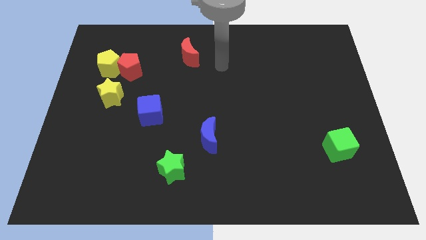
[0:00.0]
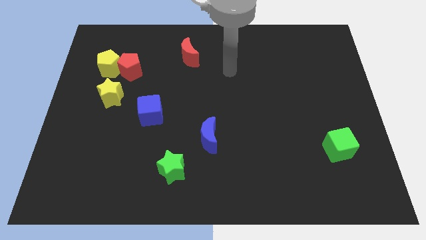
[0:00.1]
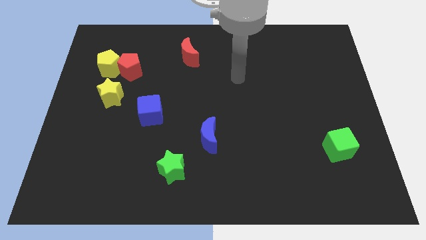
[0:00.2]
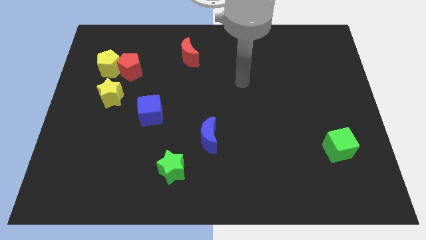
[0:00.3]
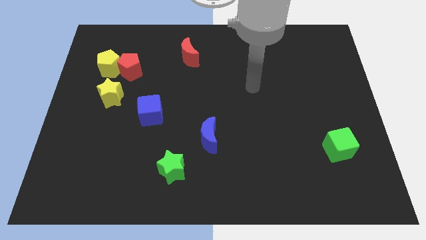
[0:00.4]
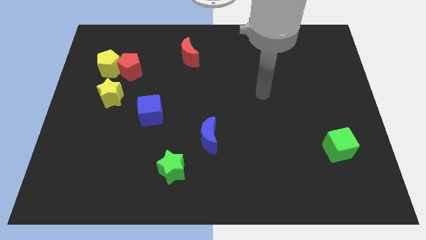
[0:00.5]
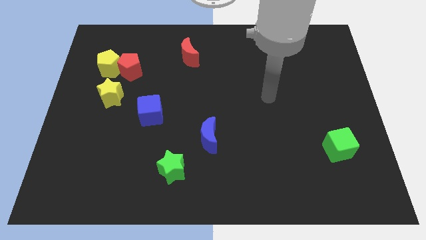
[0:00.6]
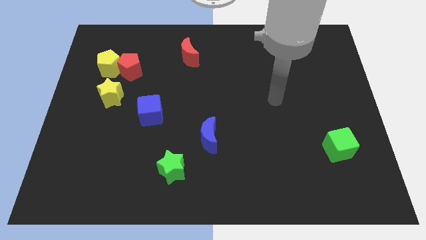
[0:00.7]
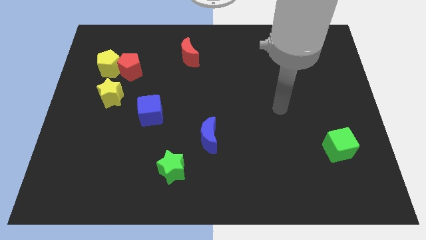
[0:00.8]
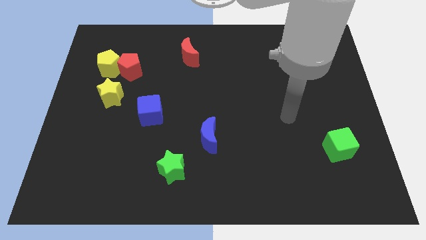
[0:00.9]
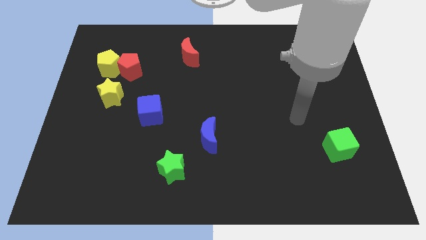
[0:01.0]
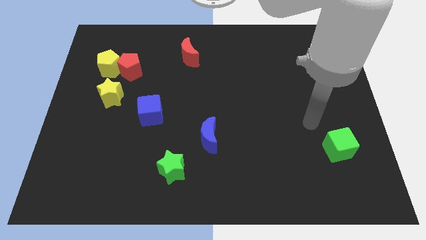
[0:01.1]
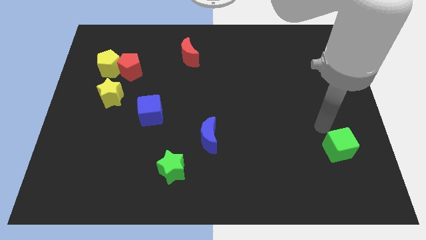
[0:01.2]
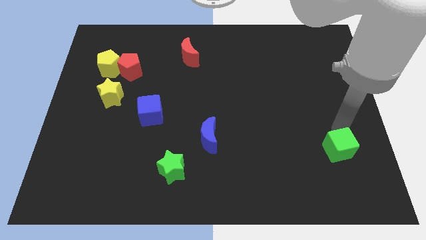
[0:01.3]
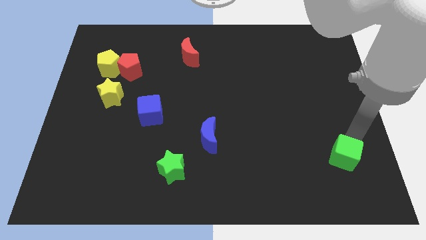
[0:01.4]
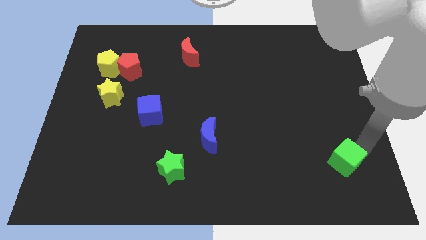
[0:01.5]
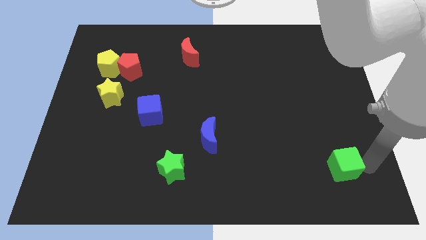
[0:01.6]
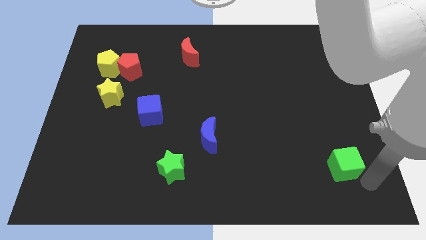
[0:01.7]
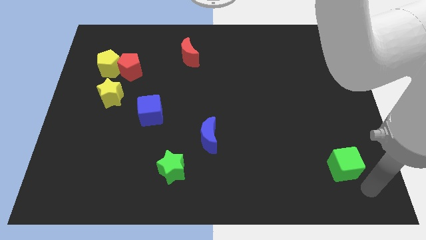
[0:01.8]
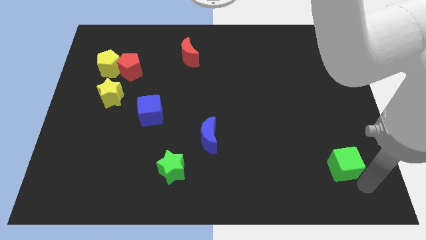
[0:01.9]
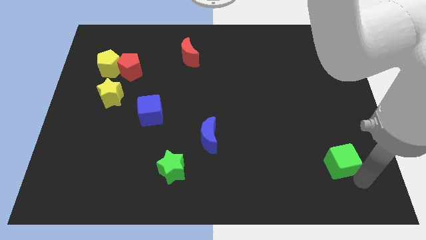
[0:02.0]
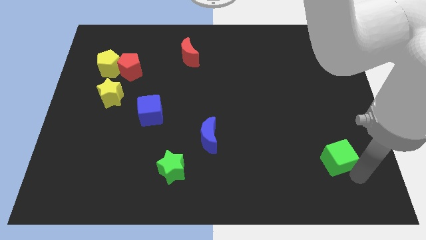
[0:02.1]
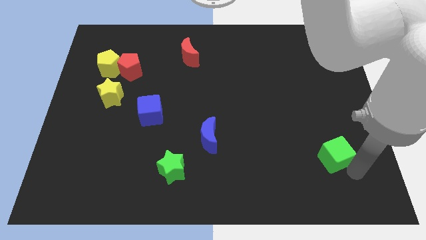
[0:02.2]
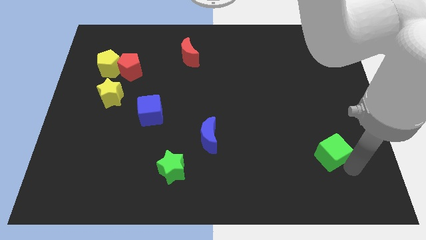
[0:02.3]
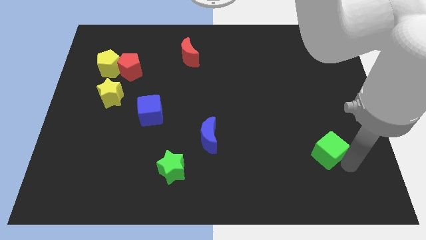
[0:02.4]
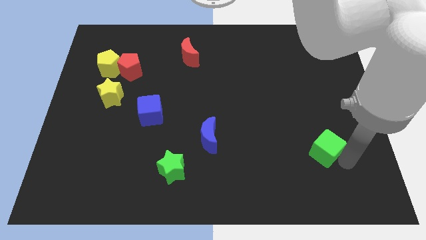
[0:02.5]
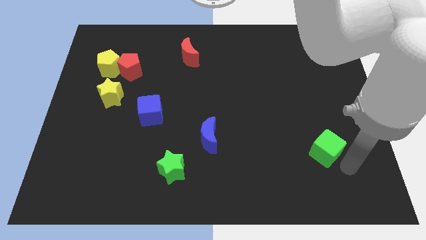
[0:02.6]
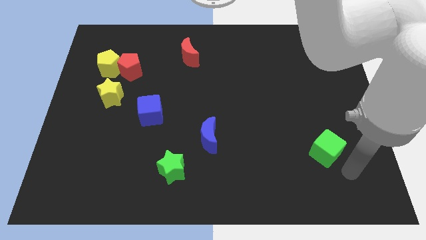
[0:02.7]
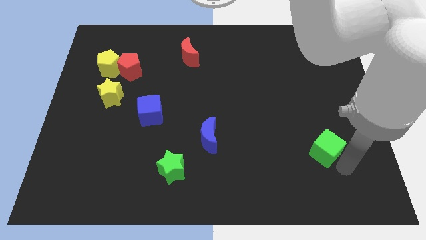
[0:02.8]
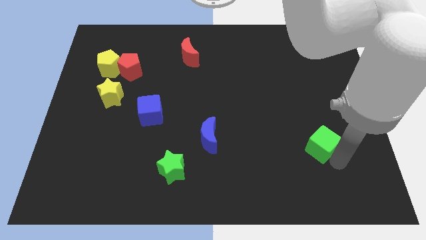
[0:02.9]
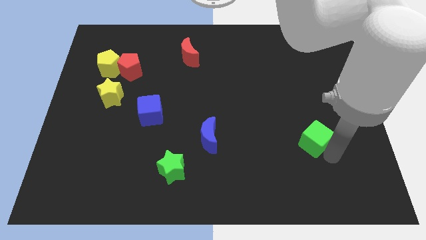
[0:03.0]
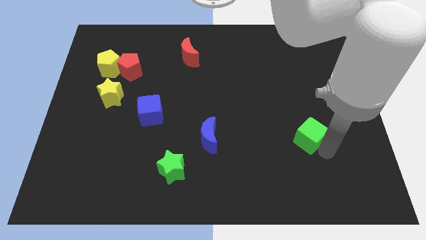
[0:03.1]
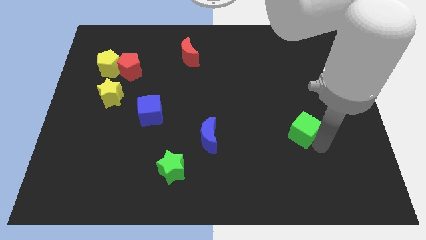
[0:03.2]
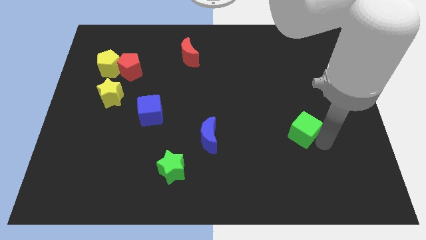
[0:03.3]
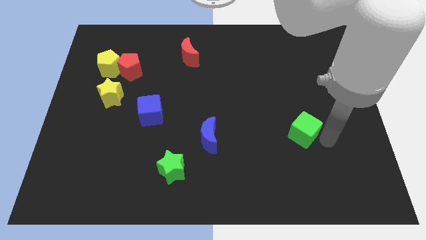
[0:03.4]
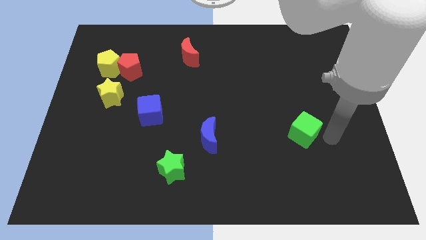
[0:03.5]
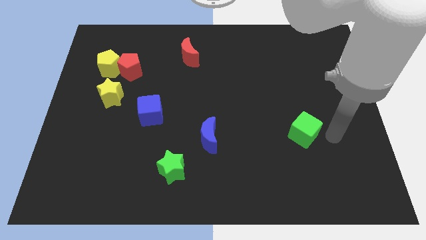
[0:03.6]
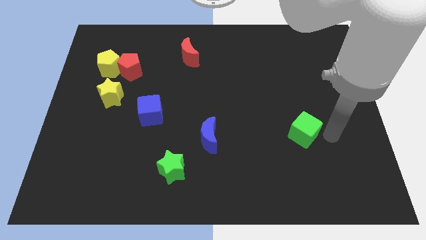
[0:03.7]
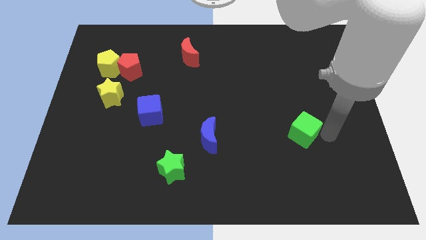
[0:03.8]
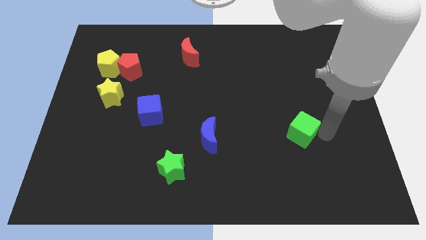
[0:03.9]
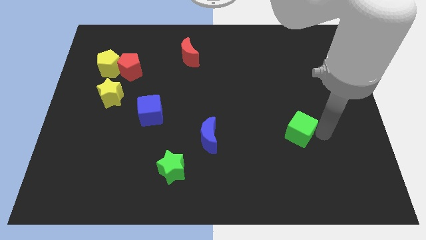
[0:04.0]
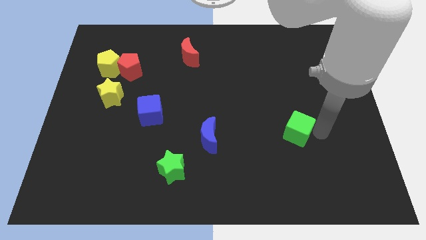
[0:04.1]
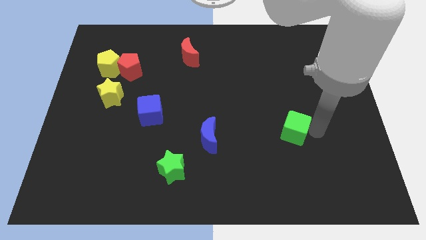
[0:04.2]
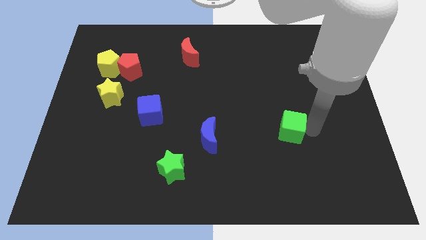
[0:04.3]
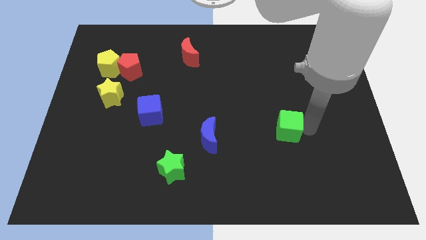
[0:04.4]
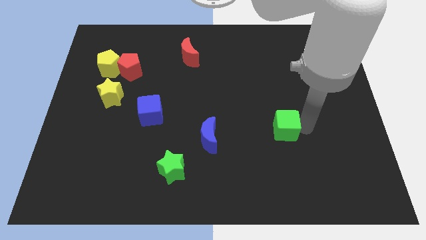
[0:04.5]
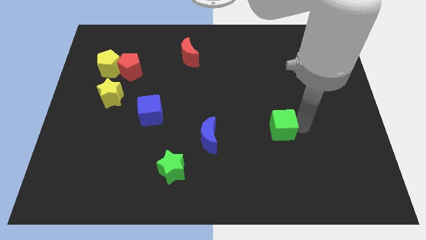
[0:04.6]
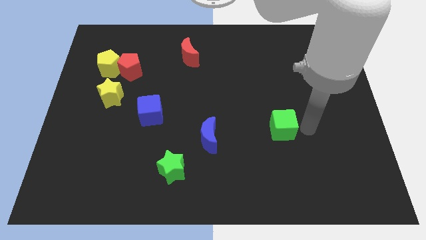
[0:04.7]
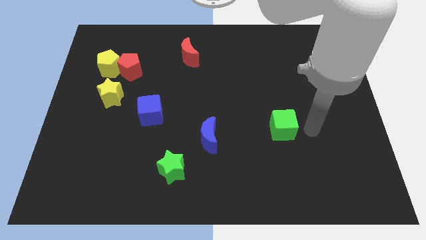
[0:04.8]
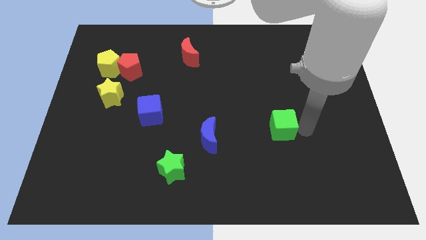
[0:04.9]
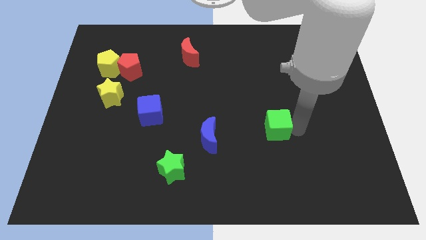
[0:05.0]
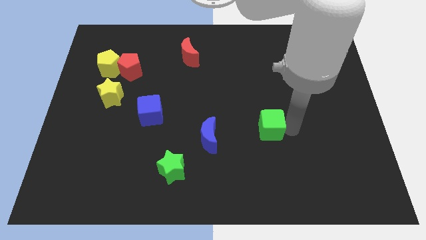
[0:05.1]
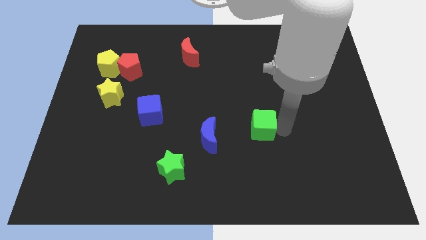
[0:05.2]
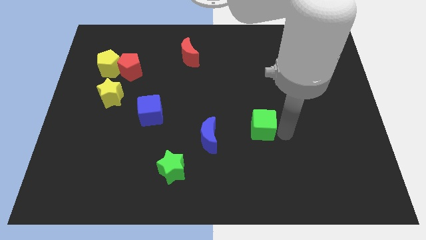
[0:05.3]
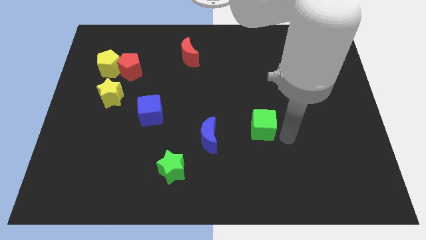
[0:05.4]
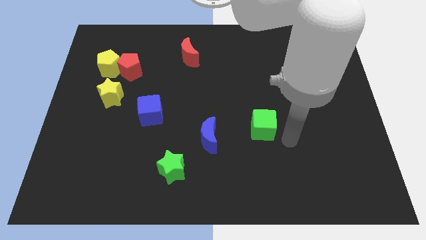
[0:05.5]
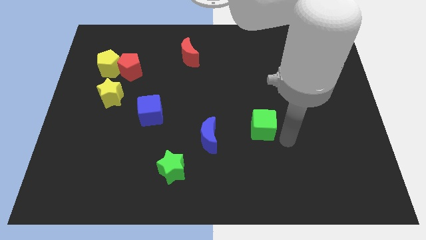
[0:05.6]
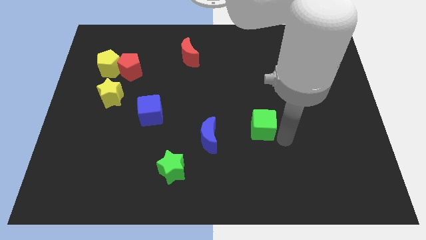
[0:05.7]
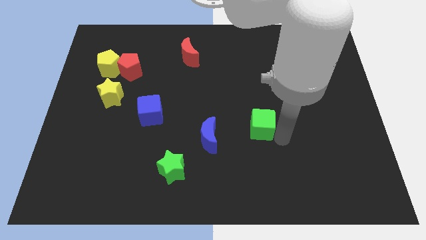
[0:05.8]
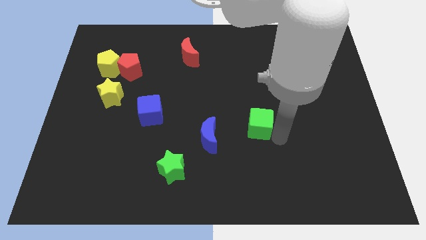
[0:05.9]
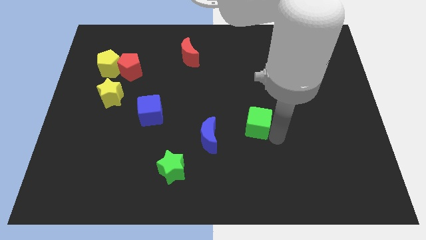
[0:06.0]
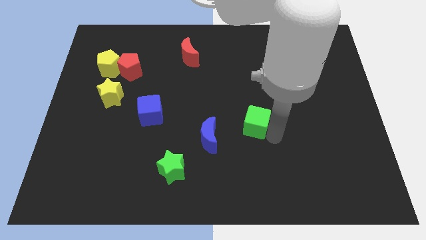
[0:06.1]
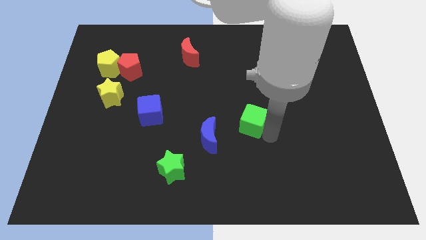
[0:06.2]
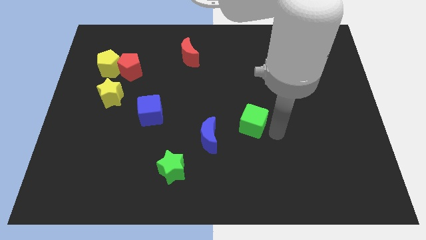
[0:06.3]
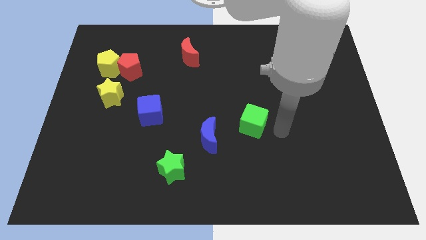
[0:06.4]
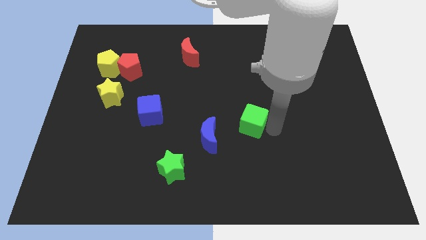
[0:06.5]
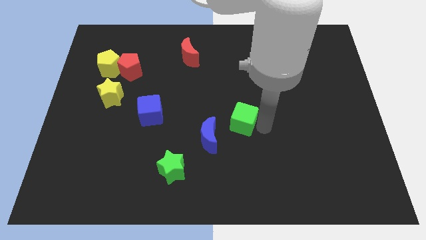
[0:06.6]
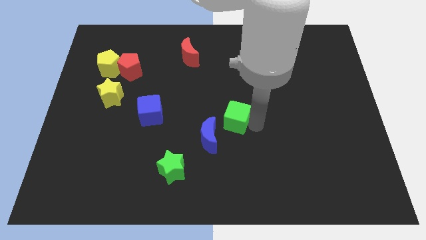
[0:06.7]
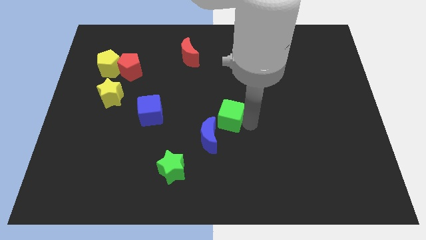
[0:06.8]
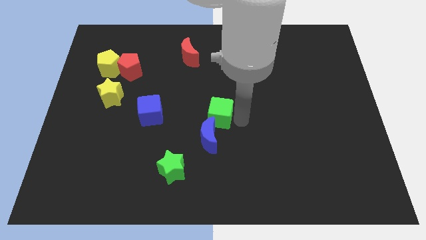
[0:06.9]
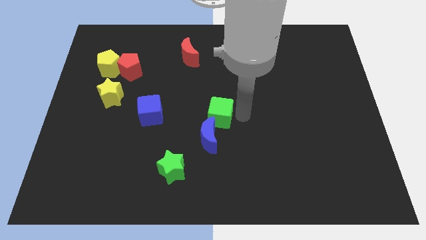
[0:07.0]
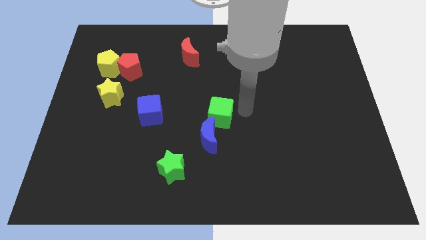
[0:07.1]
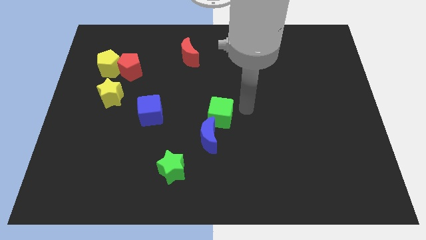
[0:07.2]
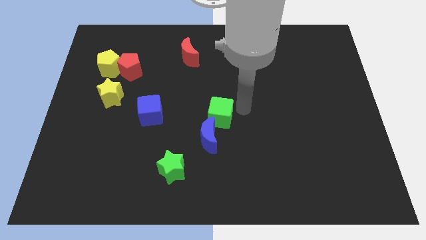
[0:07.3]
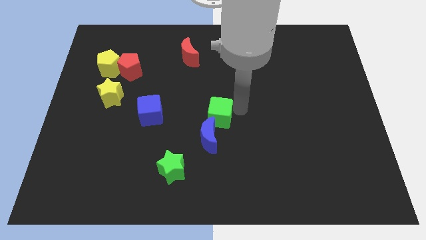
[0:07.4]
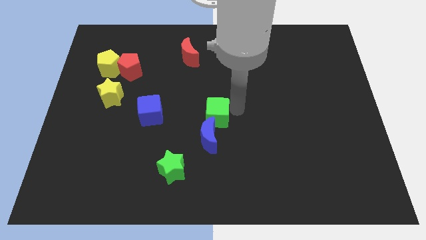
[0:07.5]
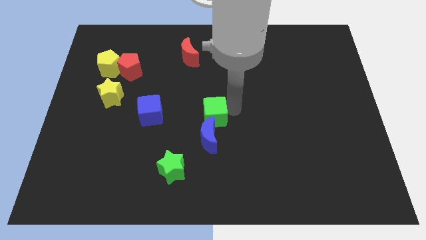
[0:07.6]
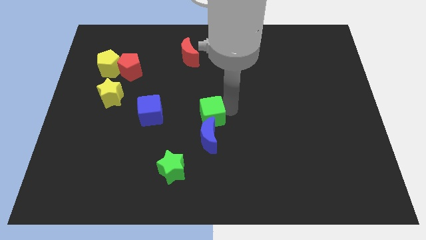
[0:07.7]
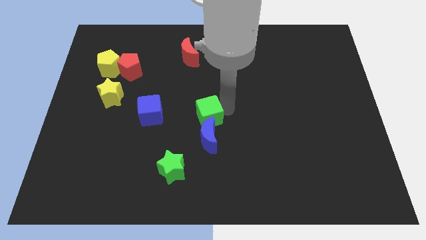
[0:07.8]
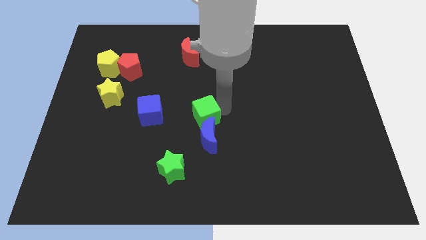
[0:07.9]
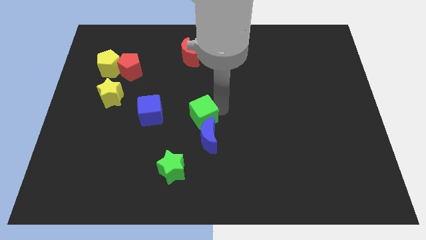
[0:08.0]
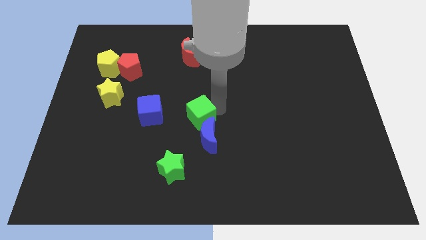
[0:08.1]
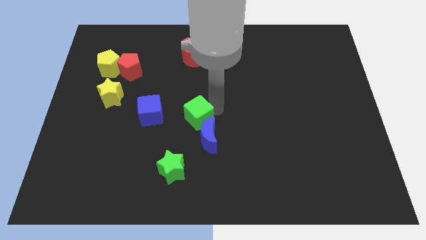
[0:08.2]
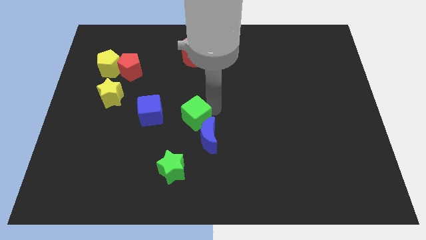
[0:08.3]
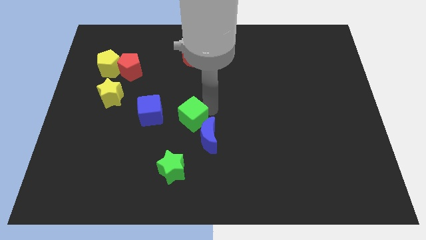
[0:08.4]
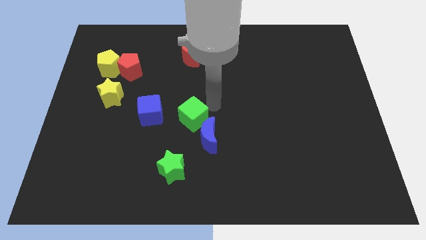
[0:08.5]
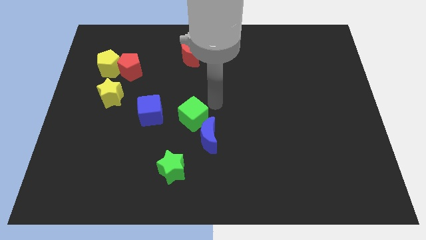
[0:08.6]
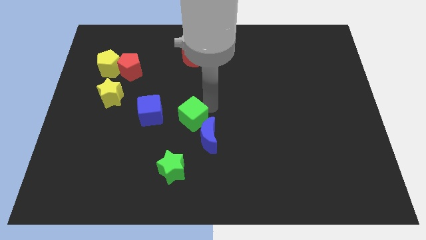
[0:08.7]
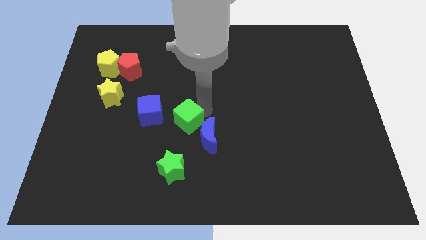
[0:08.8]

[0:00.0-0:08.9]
slide the green cube to the bottom right side of the blue cube
